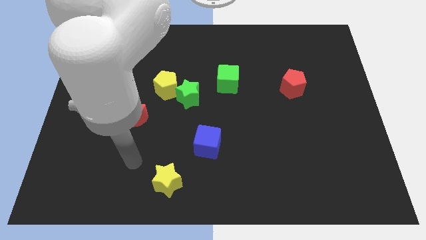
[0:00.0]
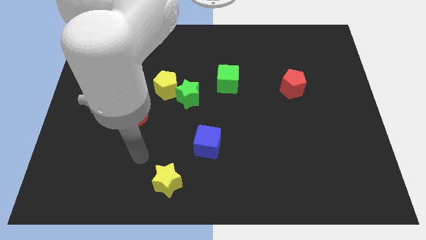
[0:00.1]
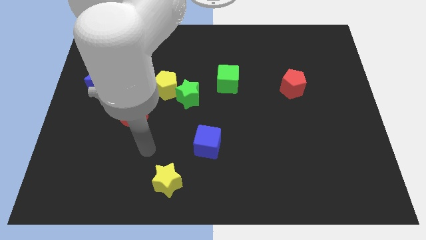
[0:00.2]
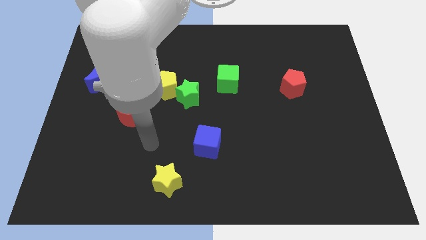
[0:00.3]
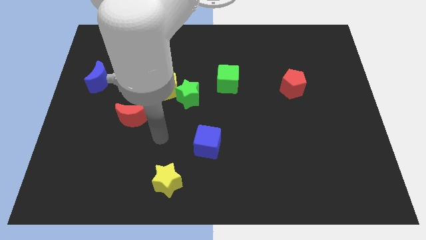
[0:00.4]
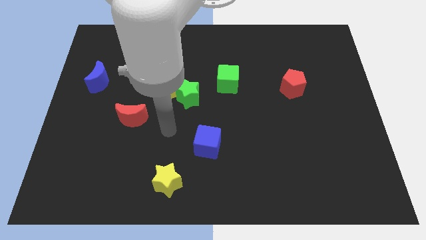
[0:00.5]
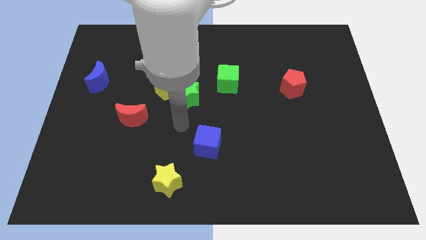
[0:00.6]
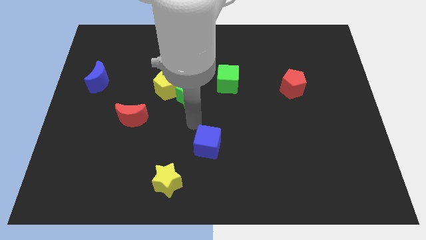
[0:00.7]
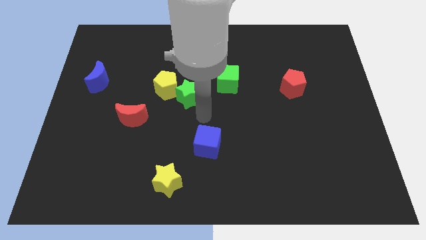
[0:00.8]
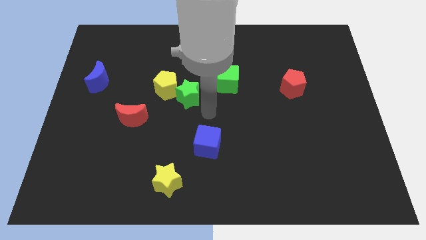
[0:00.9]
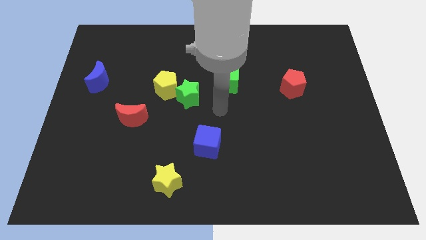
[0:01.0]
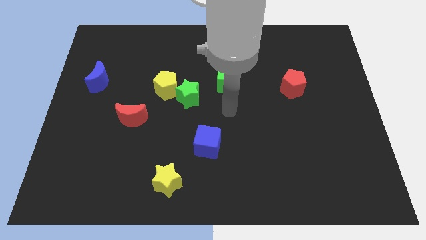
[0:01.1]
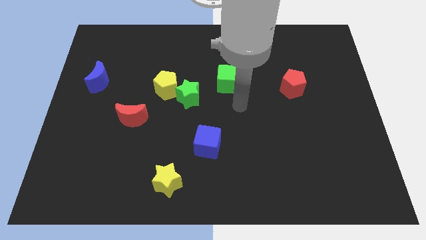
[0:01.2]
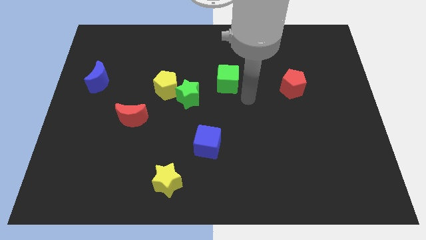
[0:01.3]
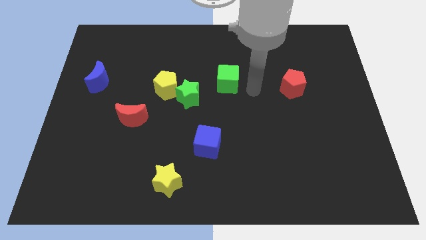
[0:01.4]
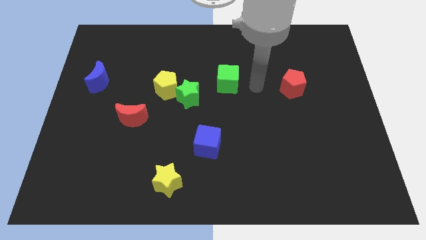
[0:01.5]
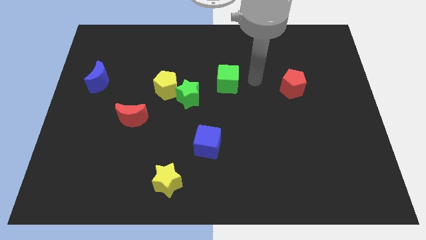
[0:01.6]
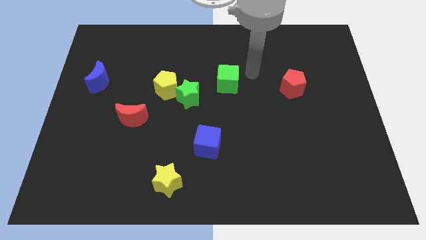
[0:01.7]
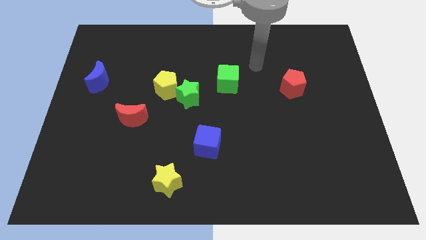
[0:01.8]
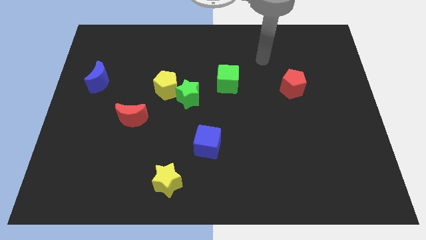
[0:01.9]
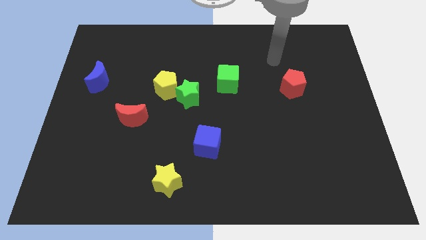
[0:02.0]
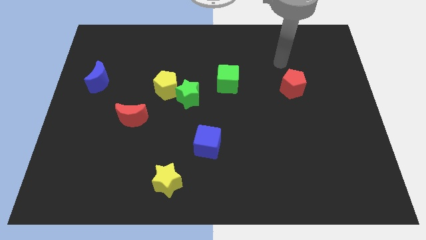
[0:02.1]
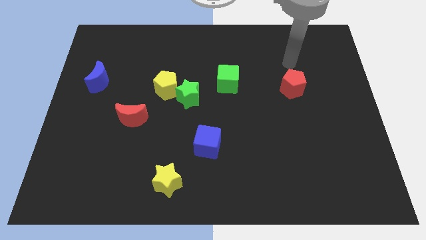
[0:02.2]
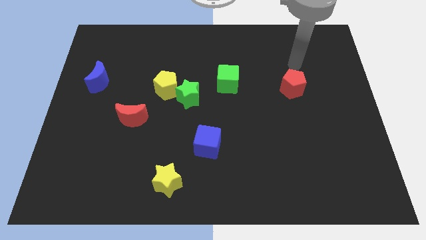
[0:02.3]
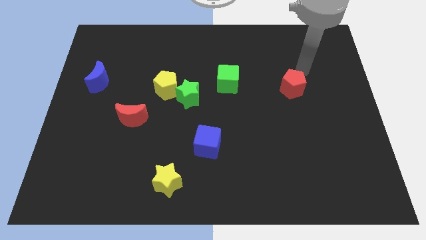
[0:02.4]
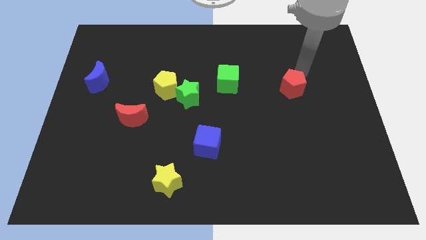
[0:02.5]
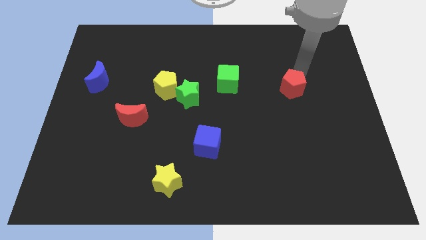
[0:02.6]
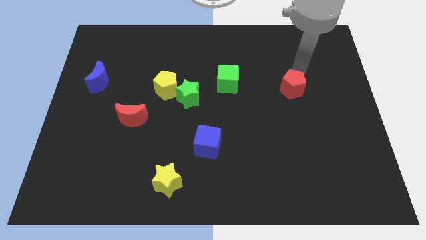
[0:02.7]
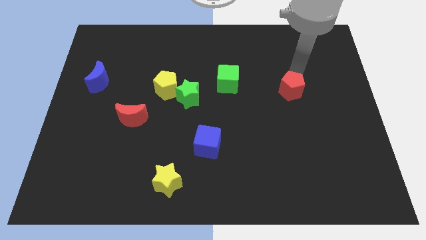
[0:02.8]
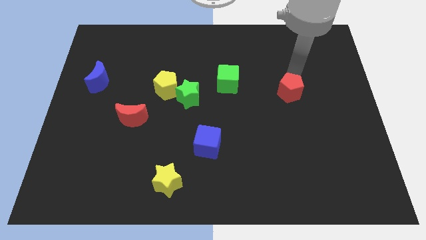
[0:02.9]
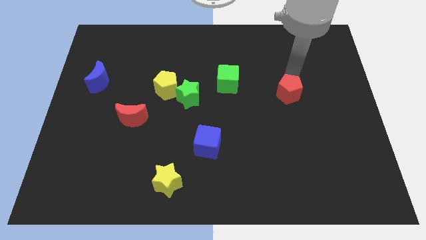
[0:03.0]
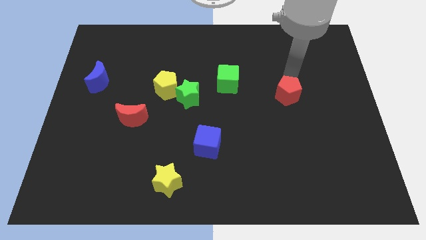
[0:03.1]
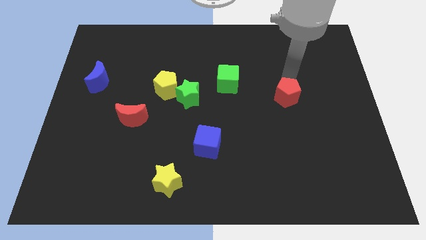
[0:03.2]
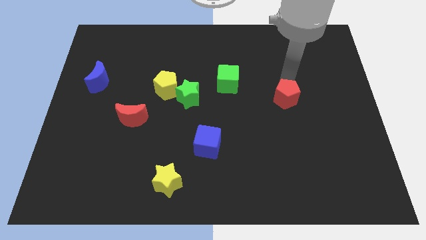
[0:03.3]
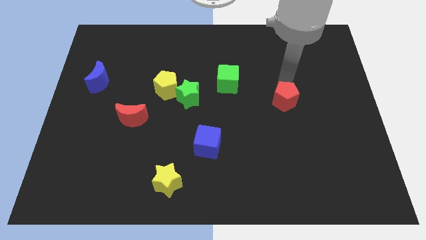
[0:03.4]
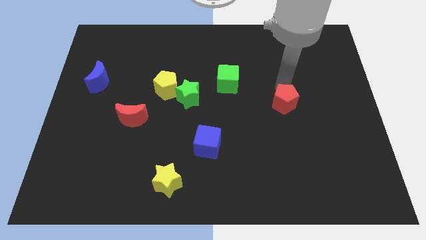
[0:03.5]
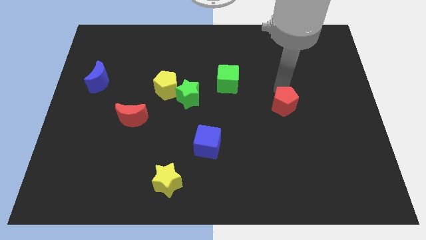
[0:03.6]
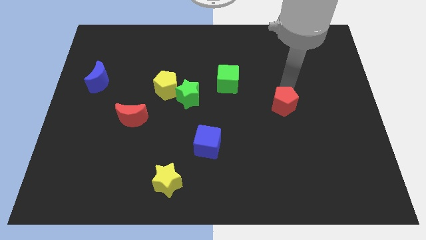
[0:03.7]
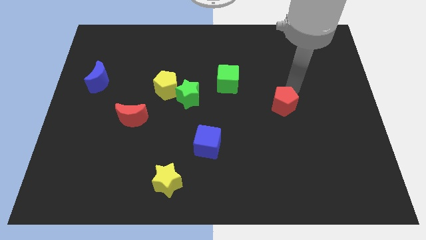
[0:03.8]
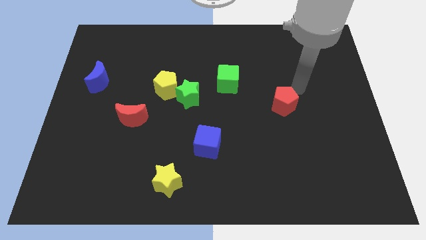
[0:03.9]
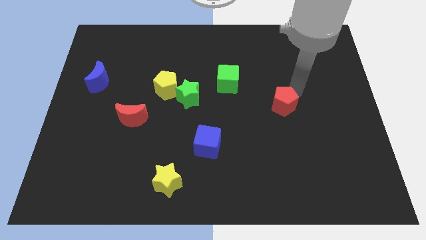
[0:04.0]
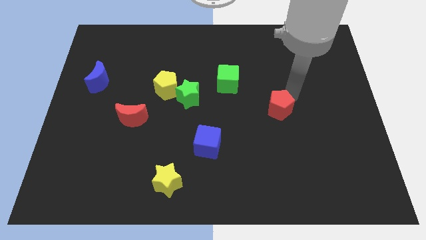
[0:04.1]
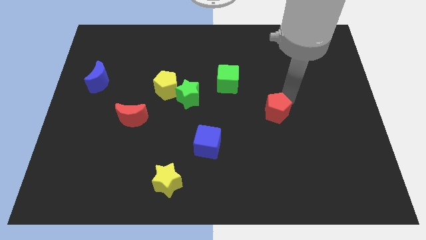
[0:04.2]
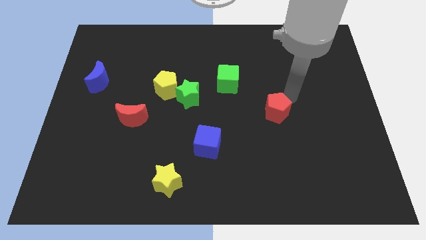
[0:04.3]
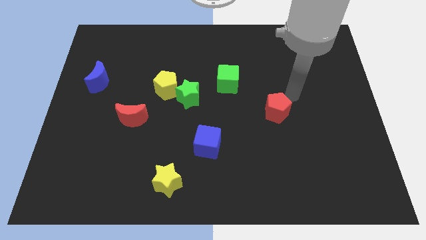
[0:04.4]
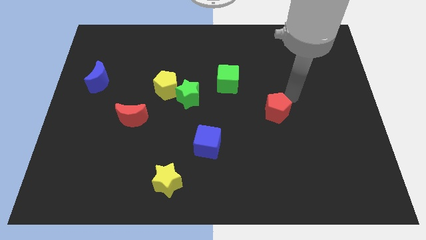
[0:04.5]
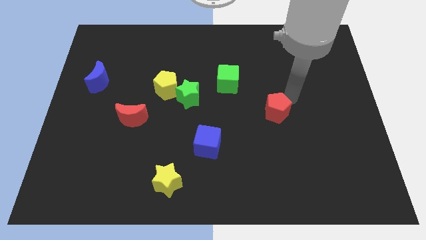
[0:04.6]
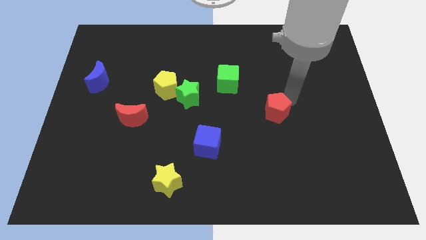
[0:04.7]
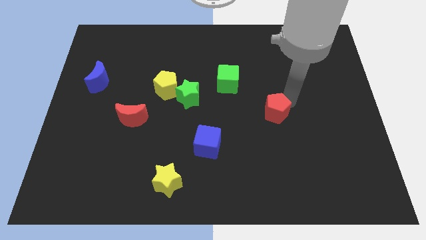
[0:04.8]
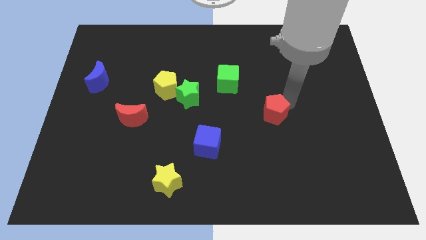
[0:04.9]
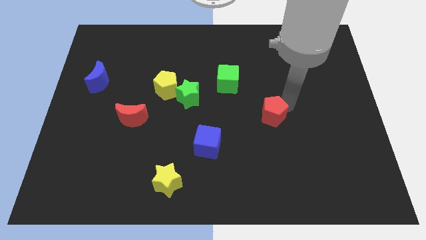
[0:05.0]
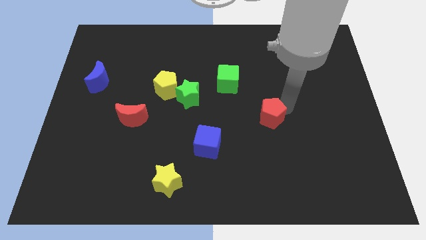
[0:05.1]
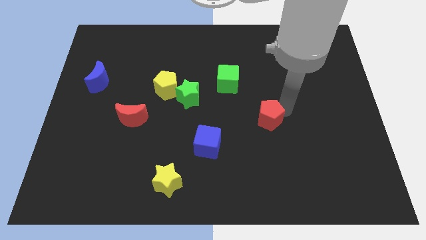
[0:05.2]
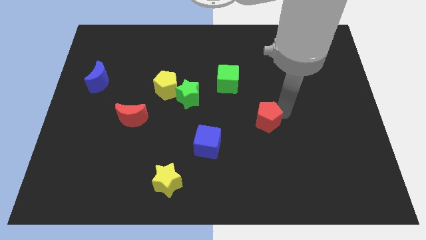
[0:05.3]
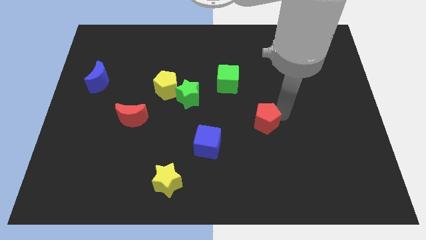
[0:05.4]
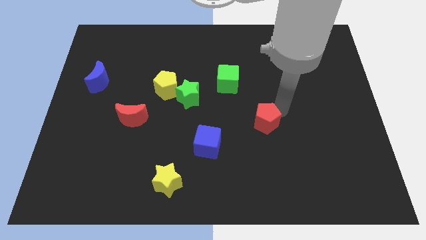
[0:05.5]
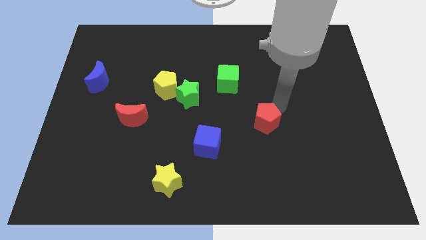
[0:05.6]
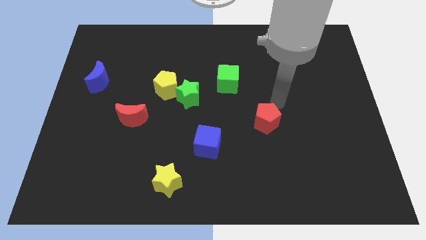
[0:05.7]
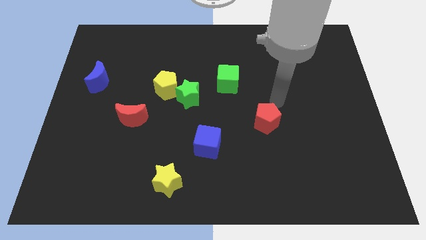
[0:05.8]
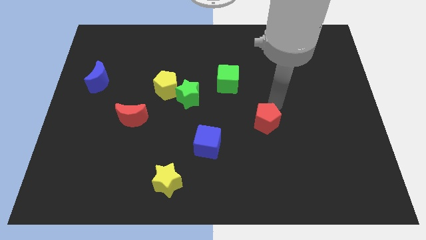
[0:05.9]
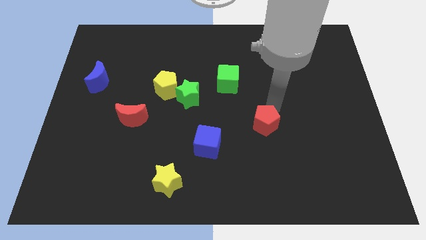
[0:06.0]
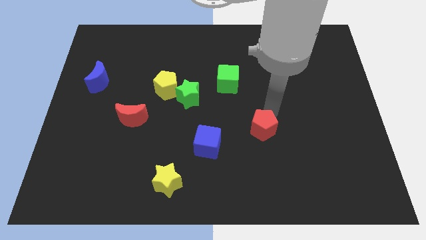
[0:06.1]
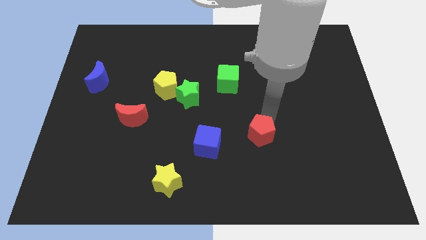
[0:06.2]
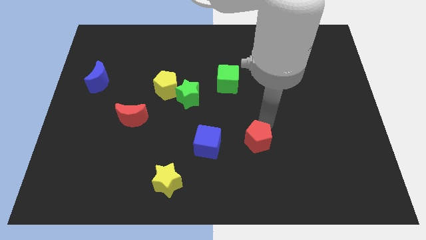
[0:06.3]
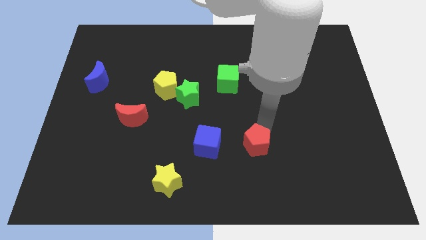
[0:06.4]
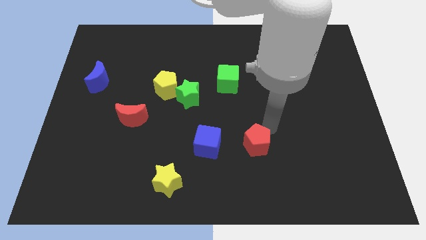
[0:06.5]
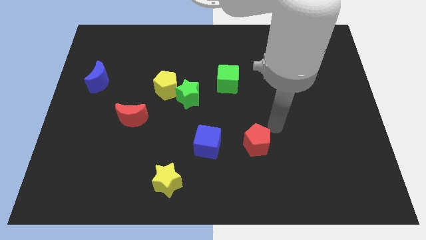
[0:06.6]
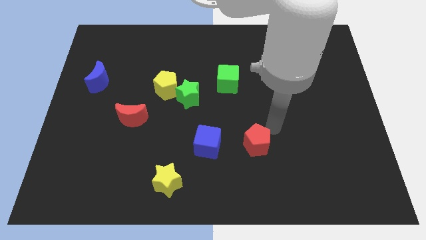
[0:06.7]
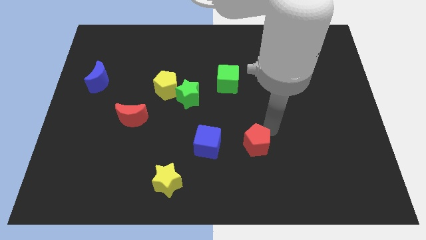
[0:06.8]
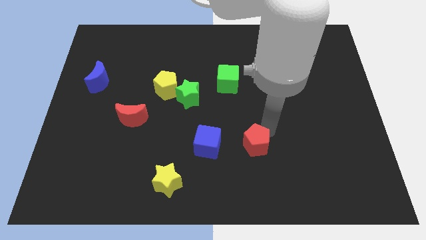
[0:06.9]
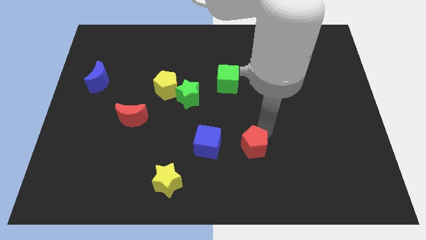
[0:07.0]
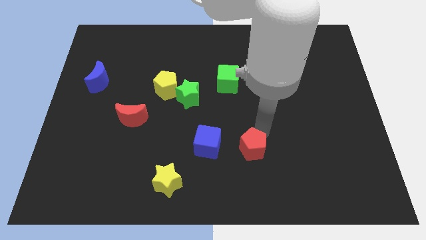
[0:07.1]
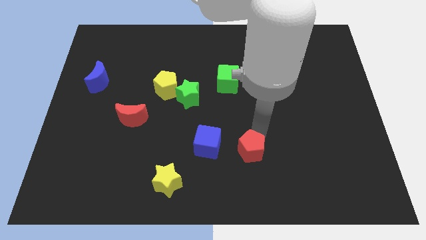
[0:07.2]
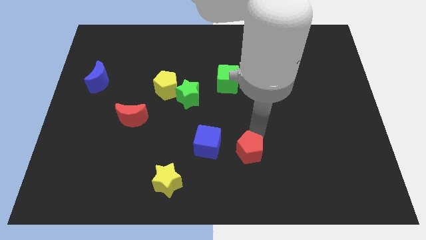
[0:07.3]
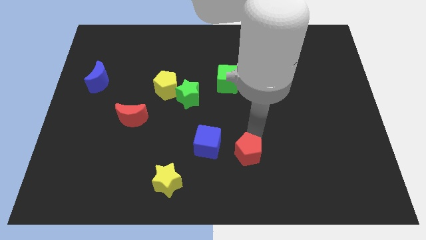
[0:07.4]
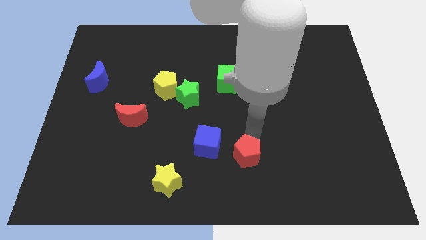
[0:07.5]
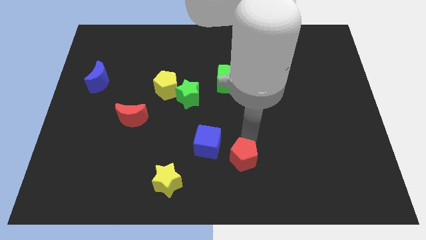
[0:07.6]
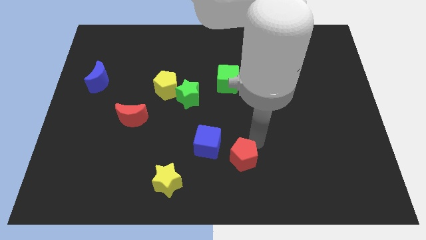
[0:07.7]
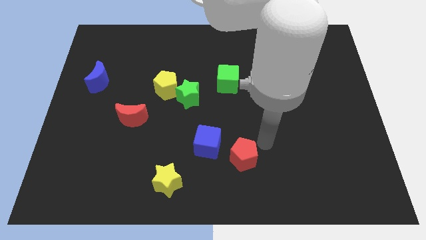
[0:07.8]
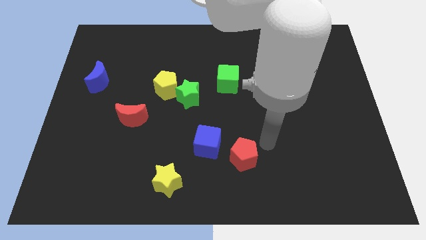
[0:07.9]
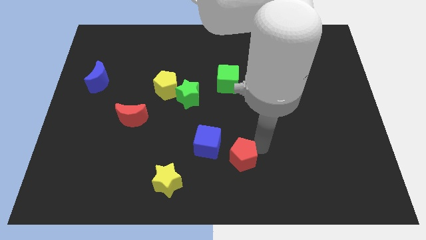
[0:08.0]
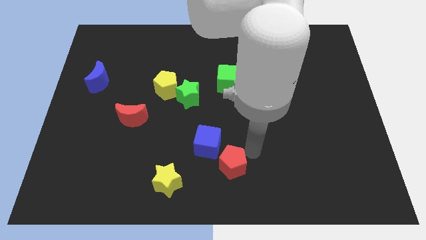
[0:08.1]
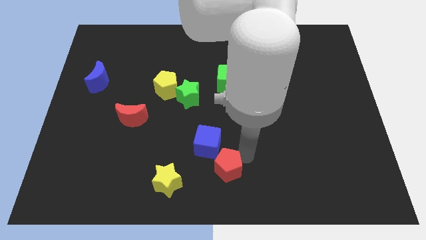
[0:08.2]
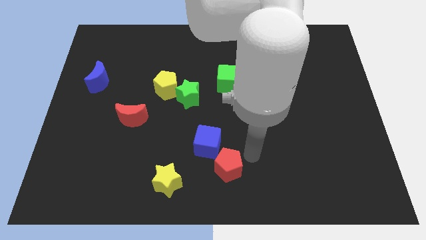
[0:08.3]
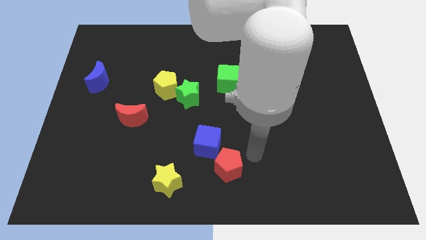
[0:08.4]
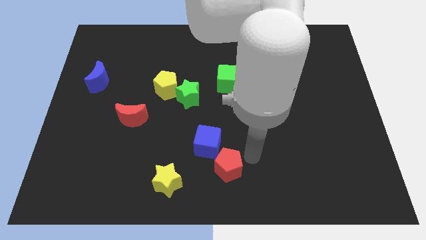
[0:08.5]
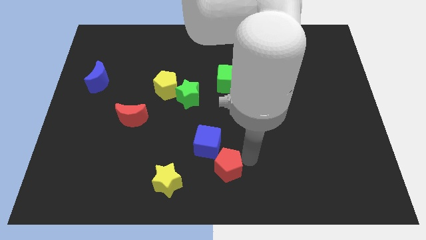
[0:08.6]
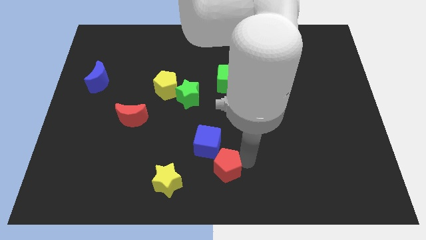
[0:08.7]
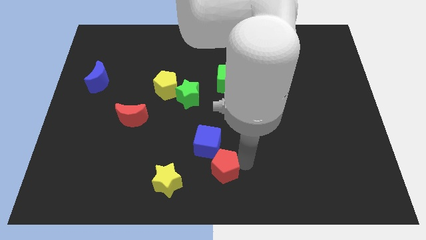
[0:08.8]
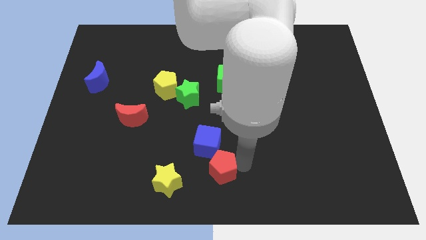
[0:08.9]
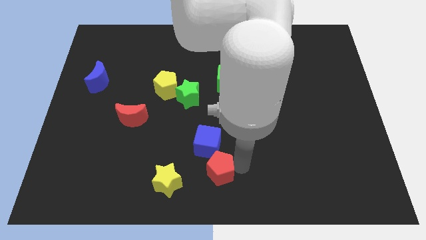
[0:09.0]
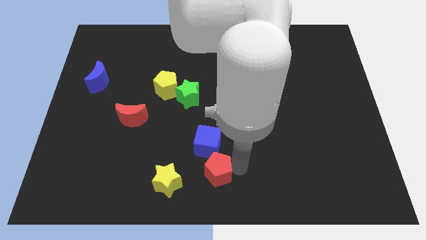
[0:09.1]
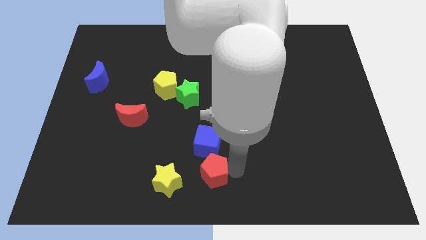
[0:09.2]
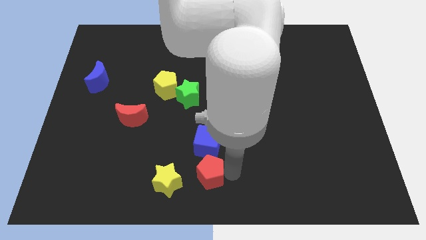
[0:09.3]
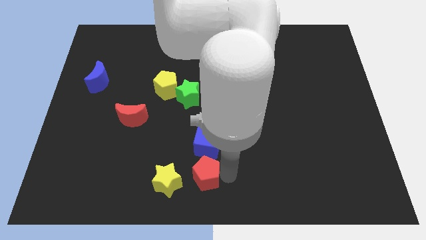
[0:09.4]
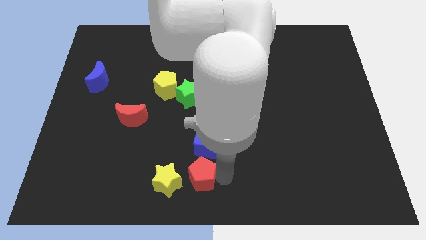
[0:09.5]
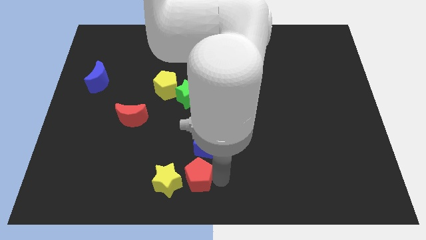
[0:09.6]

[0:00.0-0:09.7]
put the red pentagon towards the yellow star
